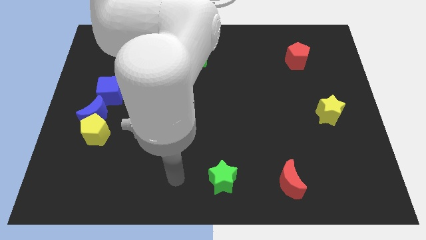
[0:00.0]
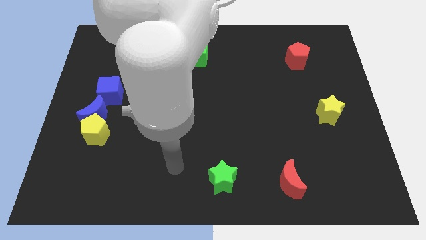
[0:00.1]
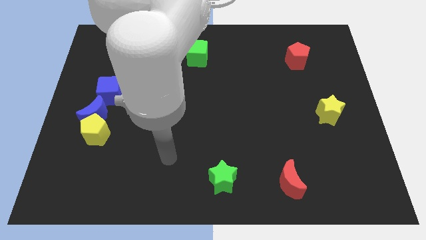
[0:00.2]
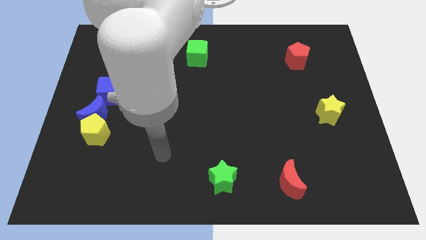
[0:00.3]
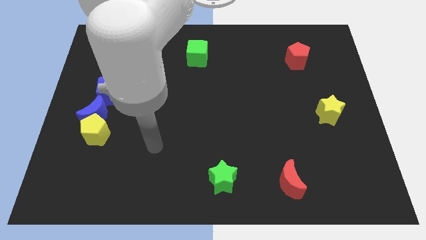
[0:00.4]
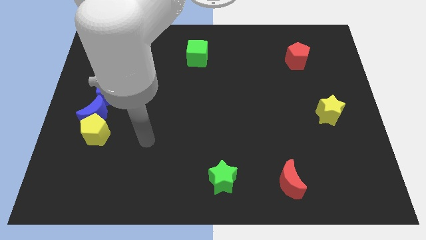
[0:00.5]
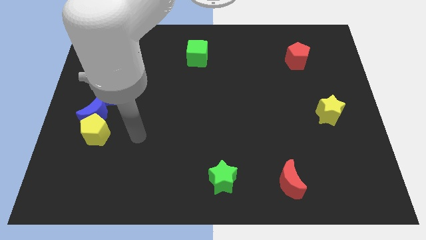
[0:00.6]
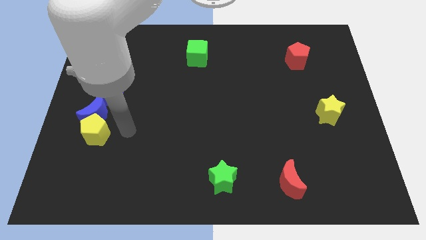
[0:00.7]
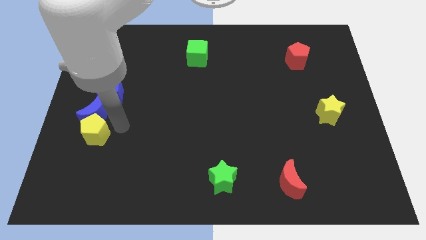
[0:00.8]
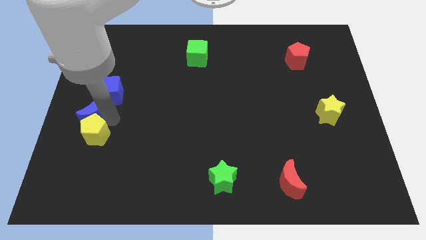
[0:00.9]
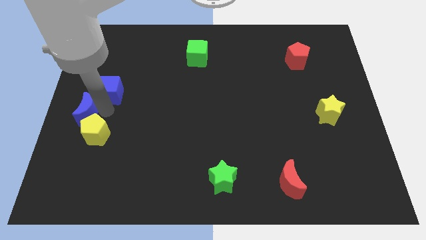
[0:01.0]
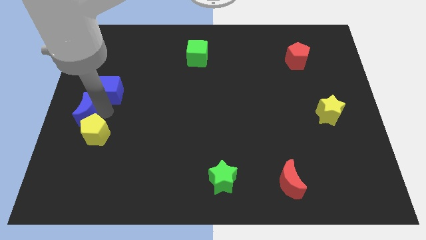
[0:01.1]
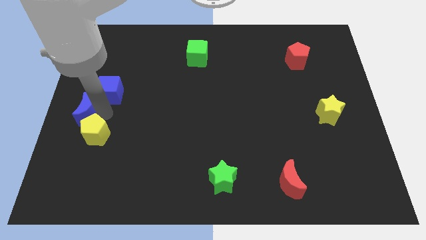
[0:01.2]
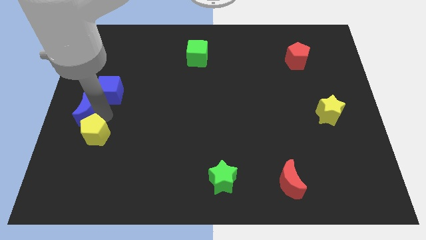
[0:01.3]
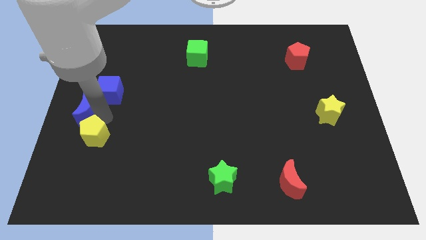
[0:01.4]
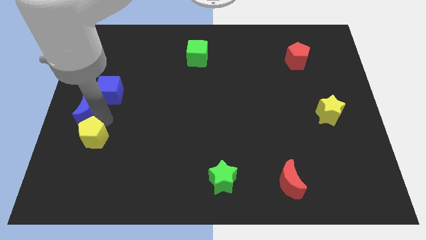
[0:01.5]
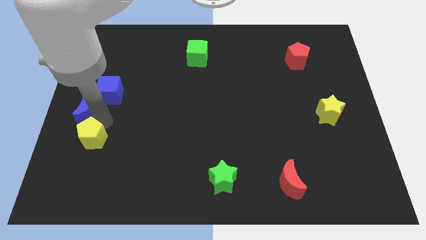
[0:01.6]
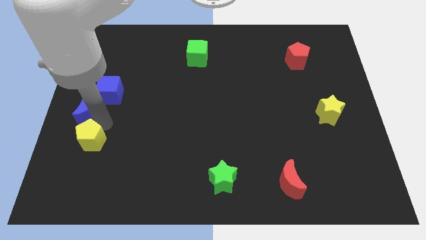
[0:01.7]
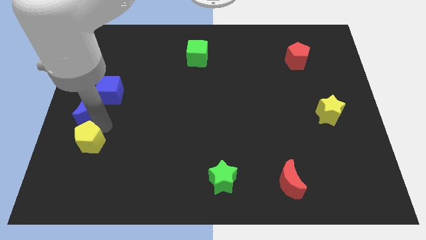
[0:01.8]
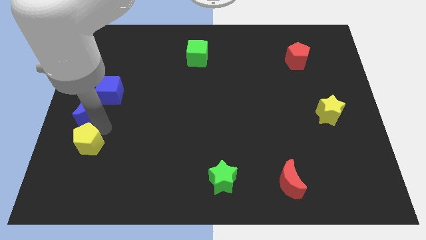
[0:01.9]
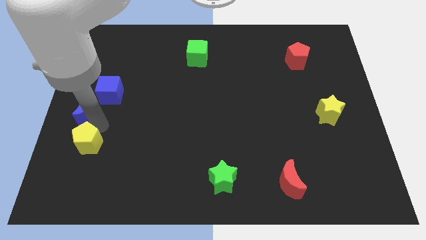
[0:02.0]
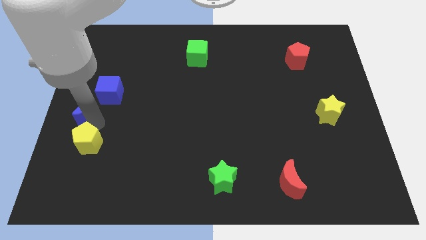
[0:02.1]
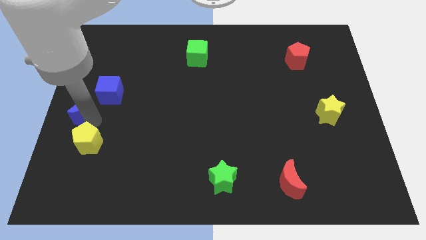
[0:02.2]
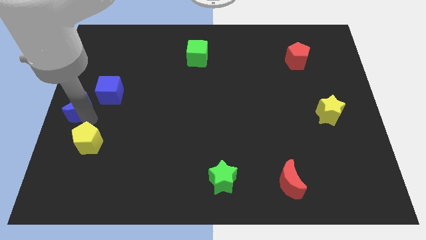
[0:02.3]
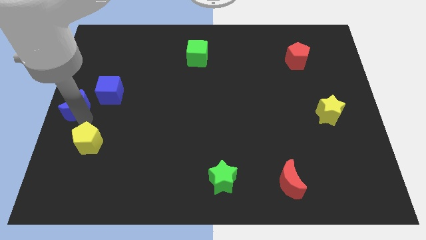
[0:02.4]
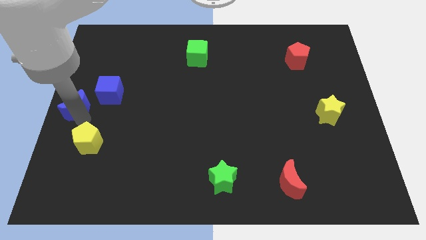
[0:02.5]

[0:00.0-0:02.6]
move the yellow pentagon away from the blue moon

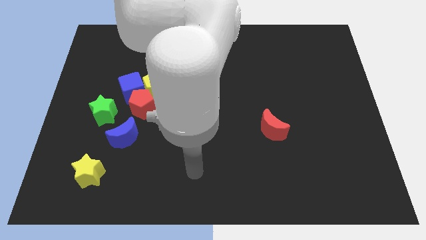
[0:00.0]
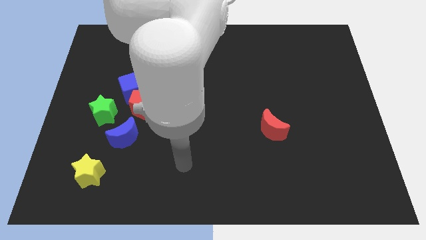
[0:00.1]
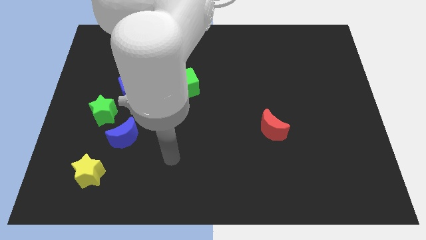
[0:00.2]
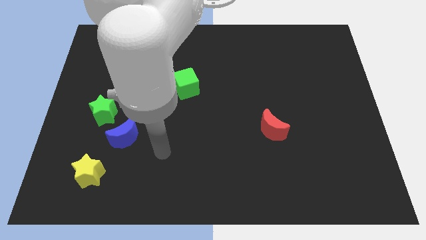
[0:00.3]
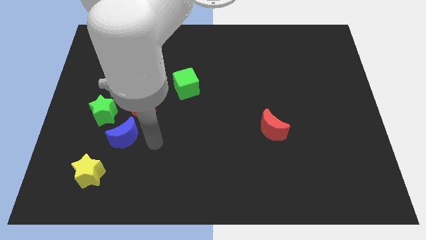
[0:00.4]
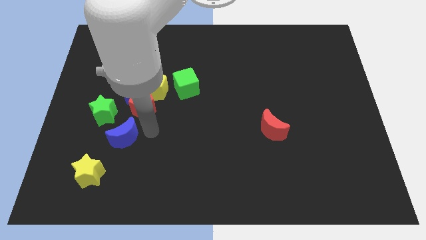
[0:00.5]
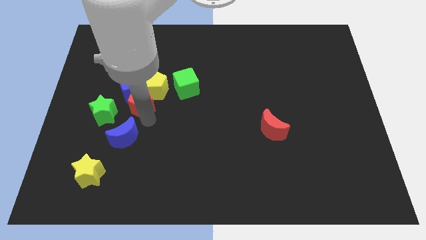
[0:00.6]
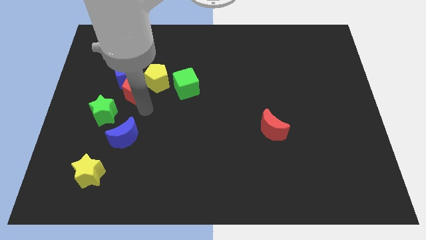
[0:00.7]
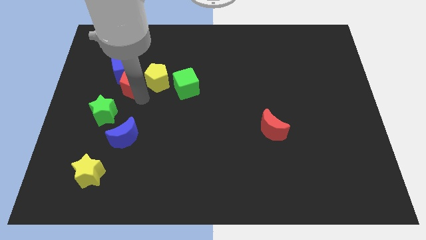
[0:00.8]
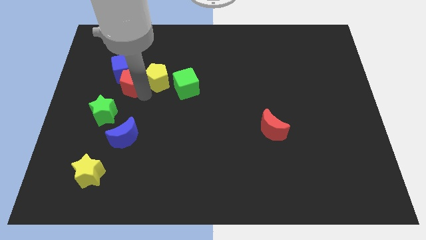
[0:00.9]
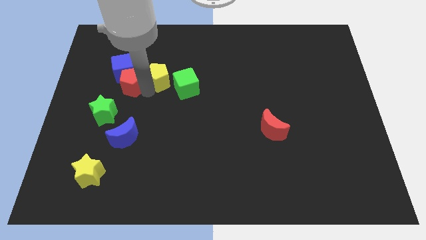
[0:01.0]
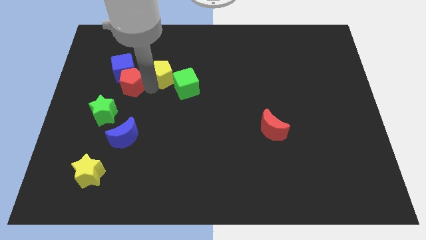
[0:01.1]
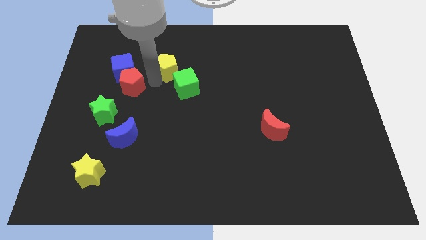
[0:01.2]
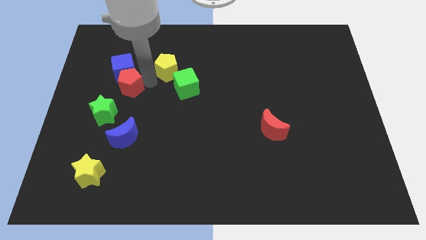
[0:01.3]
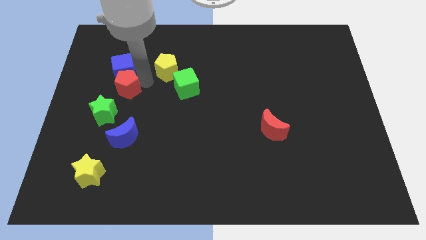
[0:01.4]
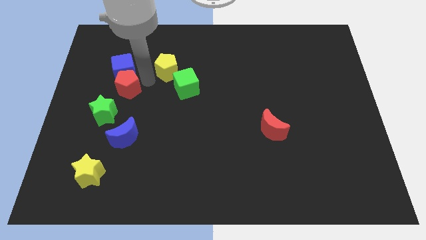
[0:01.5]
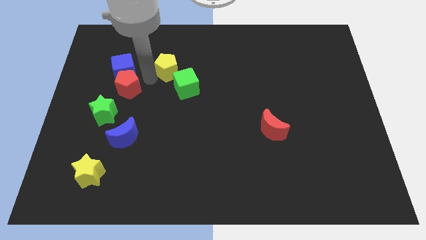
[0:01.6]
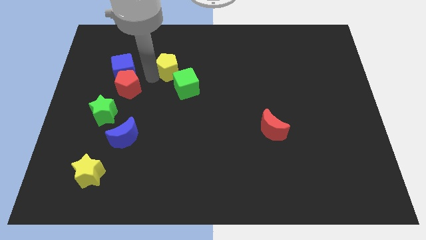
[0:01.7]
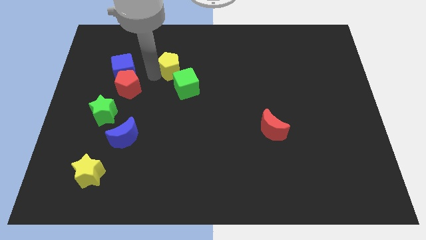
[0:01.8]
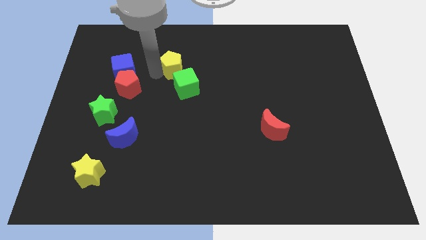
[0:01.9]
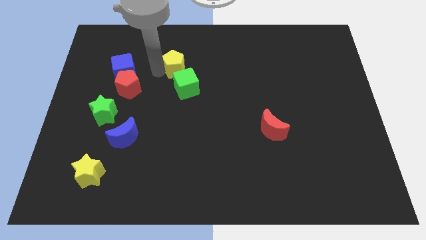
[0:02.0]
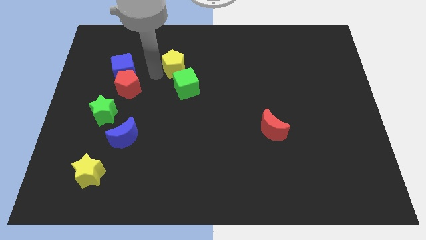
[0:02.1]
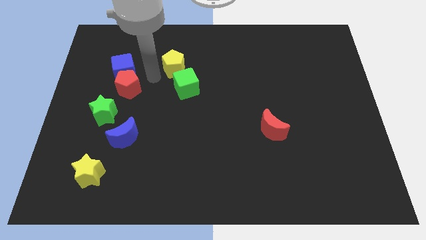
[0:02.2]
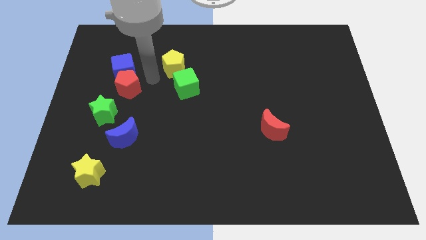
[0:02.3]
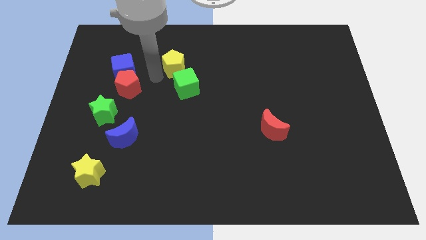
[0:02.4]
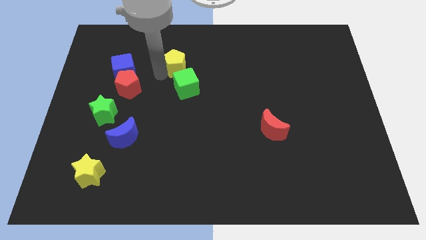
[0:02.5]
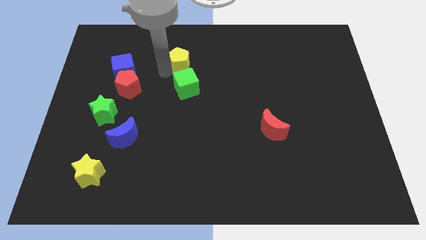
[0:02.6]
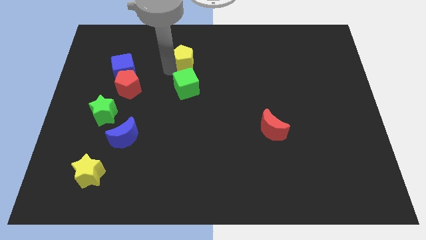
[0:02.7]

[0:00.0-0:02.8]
pull the yellow pentagon apart from the clump

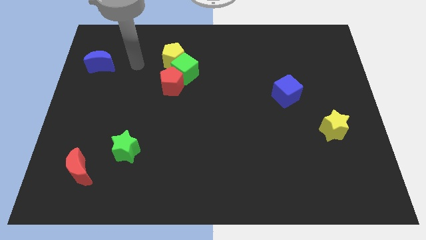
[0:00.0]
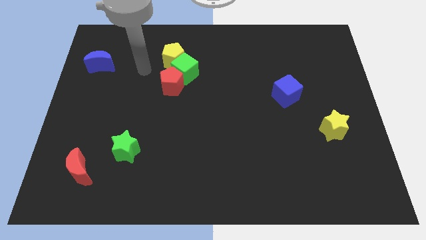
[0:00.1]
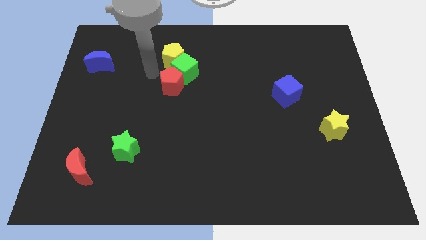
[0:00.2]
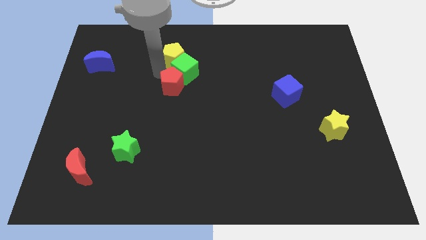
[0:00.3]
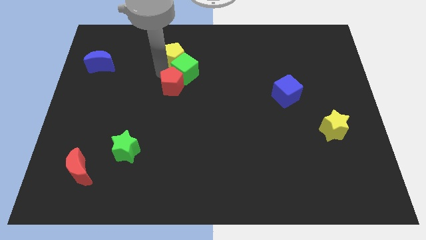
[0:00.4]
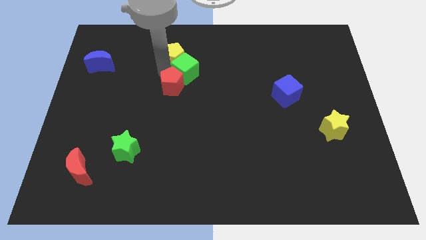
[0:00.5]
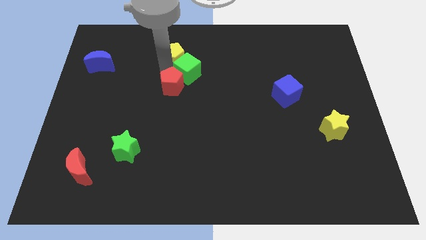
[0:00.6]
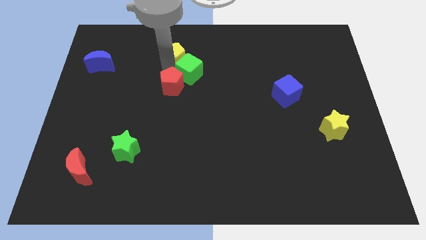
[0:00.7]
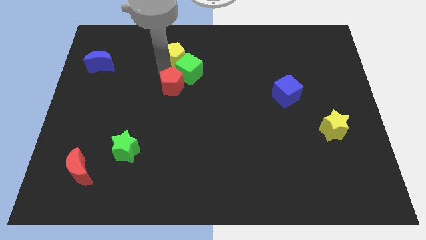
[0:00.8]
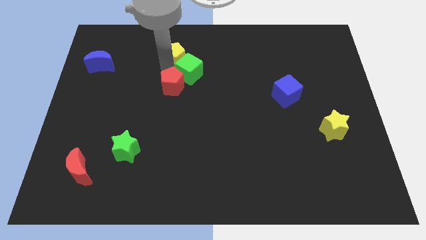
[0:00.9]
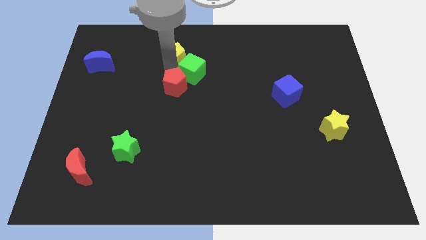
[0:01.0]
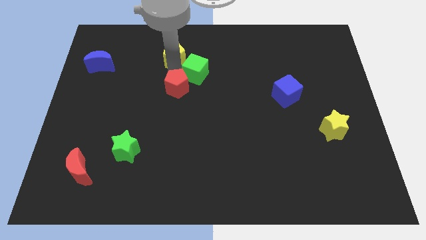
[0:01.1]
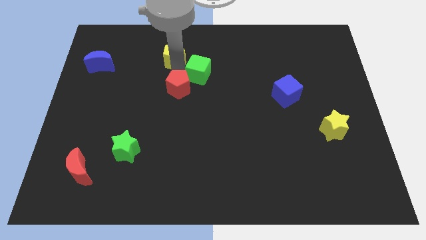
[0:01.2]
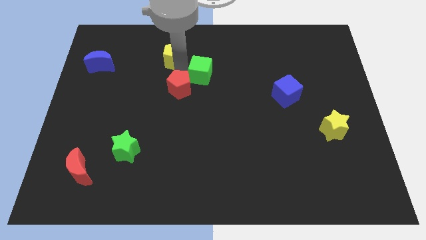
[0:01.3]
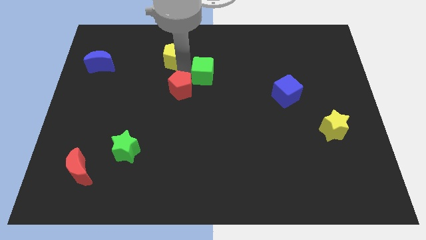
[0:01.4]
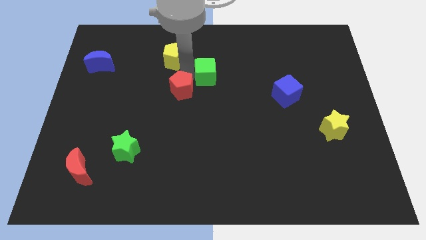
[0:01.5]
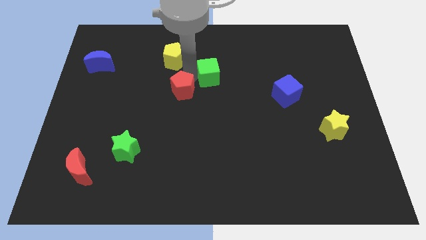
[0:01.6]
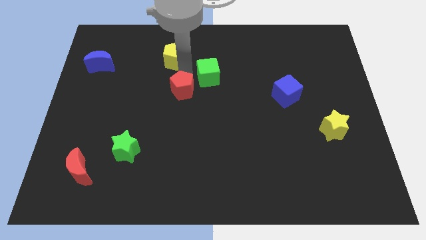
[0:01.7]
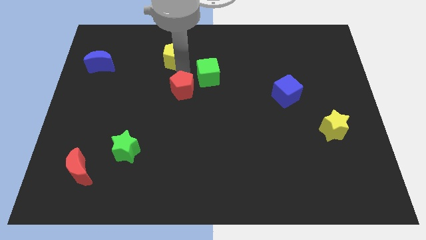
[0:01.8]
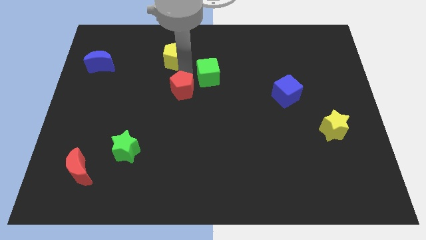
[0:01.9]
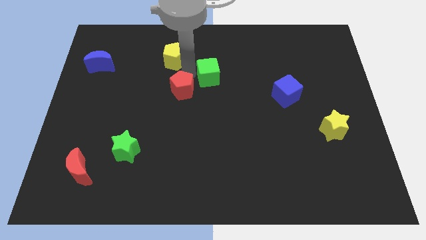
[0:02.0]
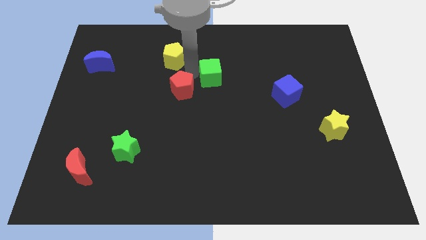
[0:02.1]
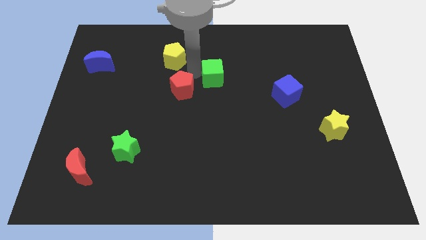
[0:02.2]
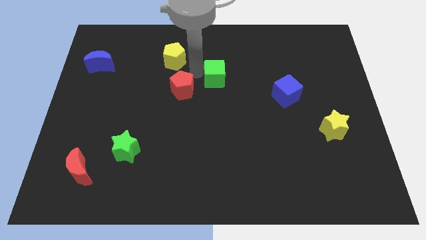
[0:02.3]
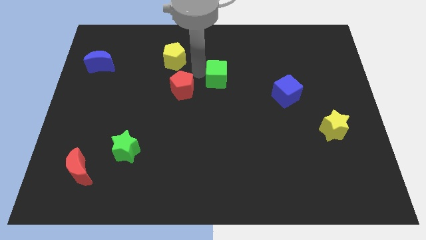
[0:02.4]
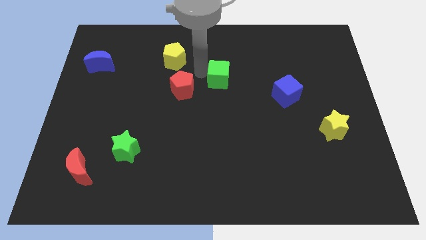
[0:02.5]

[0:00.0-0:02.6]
pull the green cube apart from the yellow pentagon and red pentagon

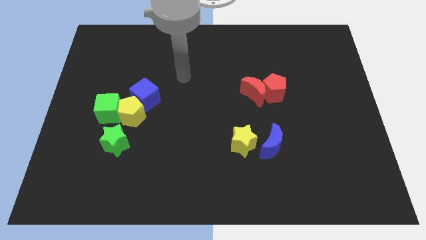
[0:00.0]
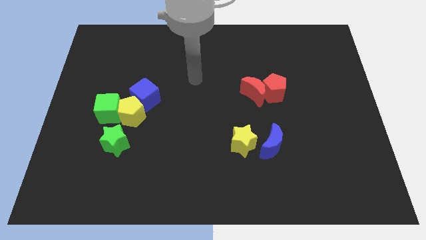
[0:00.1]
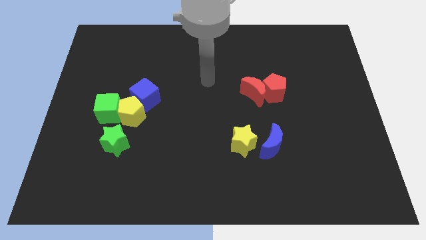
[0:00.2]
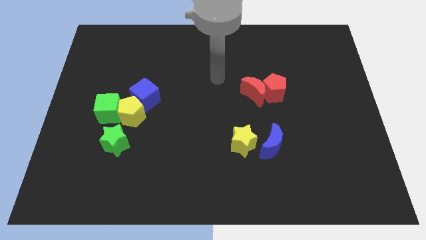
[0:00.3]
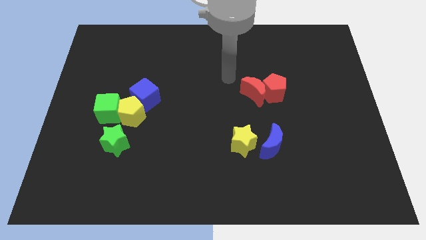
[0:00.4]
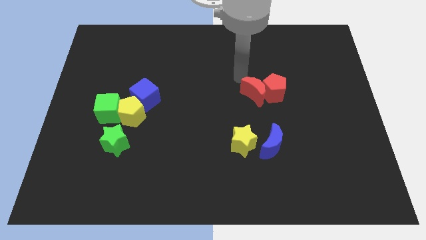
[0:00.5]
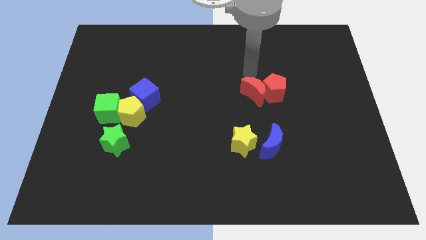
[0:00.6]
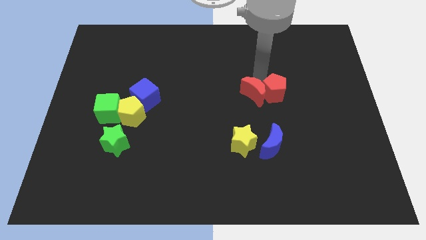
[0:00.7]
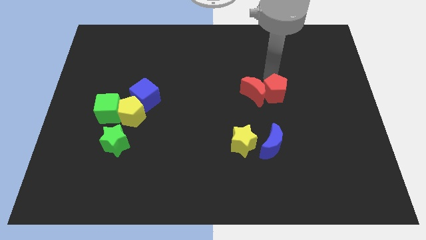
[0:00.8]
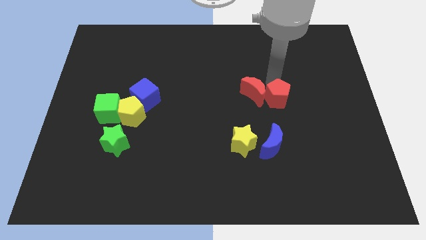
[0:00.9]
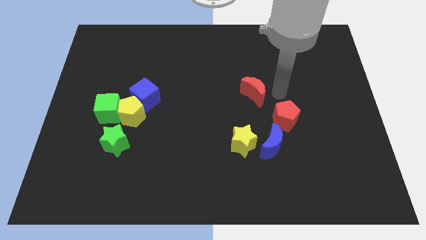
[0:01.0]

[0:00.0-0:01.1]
separate the red moon from the red pentagon

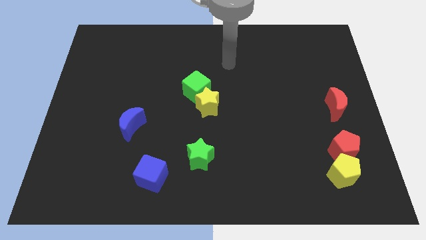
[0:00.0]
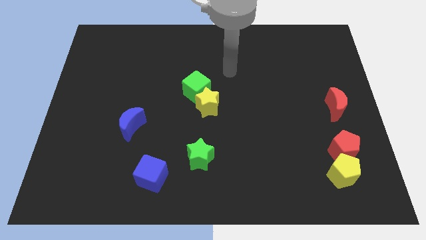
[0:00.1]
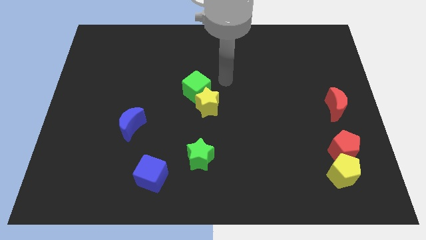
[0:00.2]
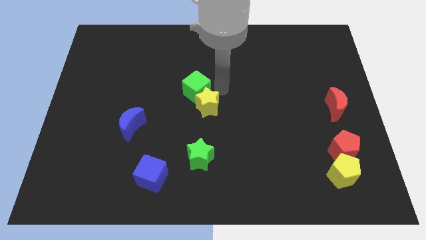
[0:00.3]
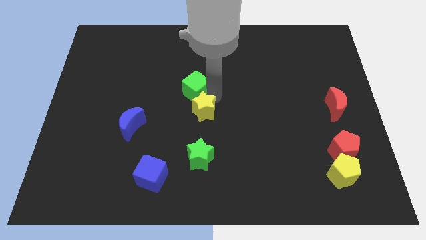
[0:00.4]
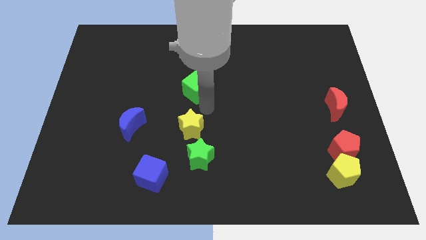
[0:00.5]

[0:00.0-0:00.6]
move the green cube away from the yellow star
